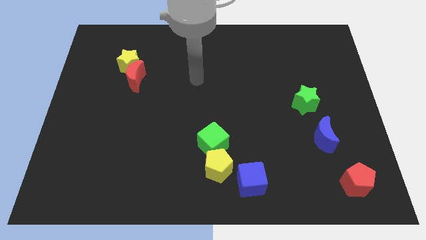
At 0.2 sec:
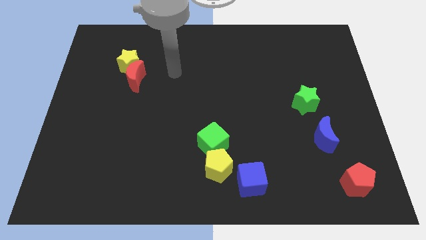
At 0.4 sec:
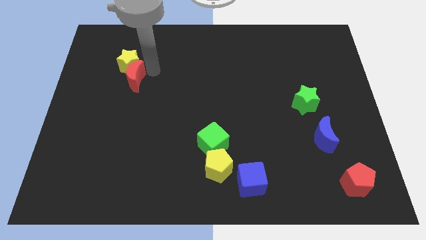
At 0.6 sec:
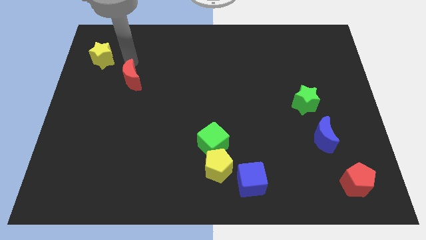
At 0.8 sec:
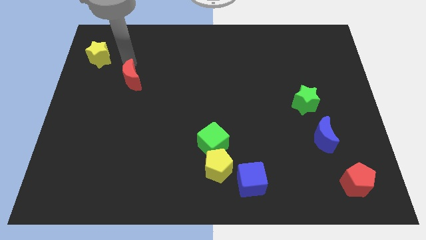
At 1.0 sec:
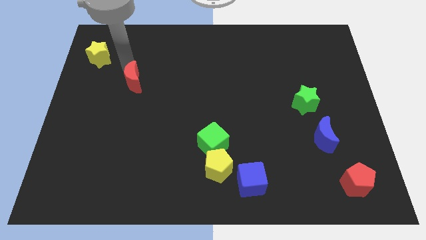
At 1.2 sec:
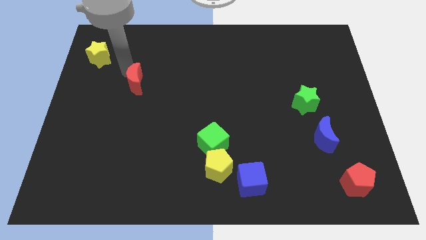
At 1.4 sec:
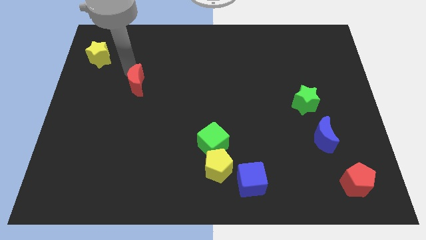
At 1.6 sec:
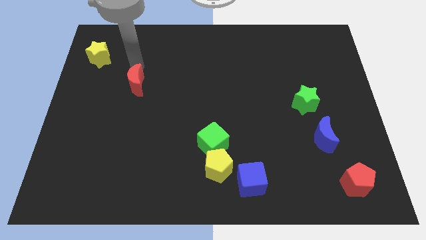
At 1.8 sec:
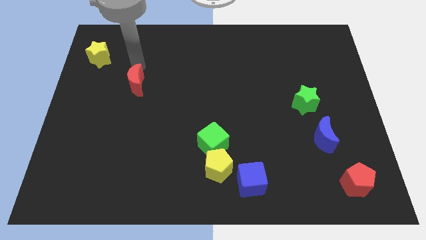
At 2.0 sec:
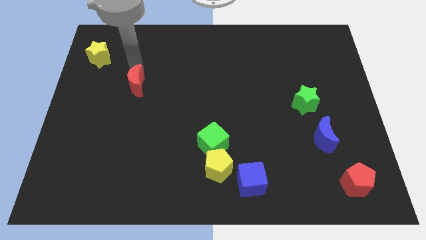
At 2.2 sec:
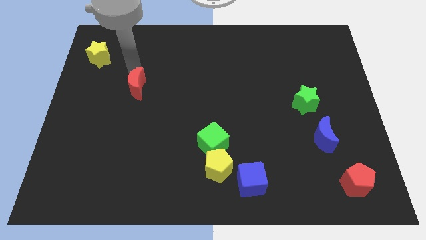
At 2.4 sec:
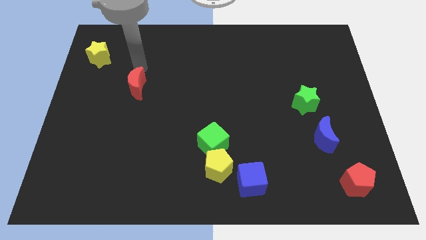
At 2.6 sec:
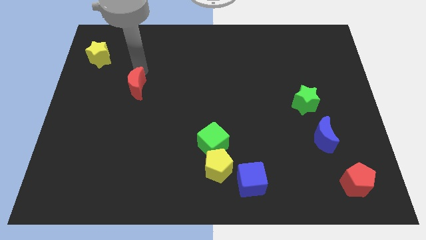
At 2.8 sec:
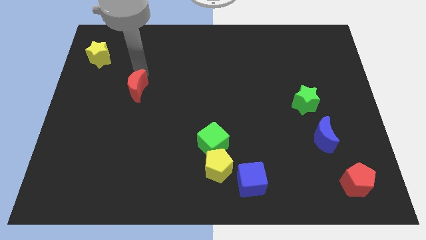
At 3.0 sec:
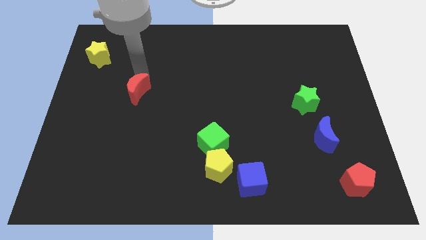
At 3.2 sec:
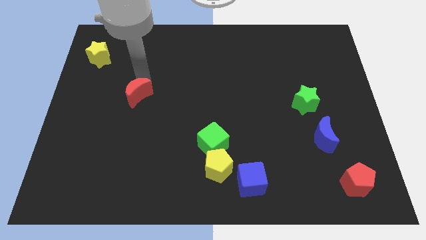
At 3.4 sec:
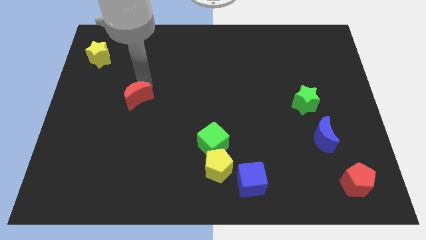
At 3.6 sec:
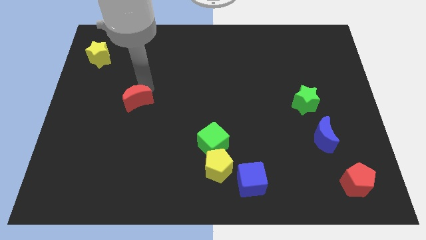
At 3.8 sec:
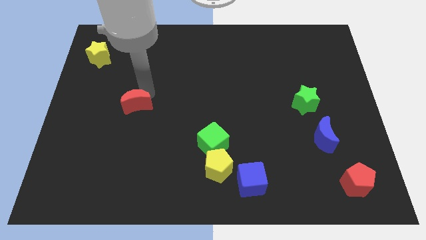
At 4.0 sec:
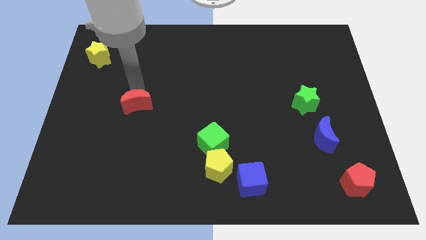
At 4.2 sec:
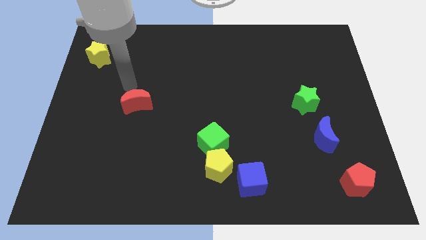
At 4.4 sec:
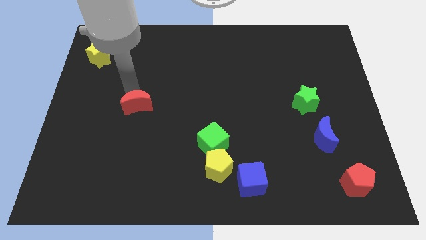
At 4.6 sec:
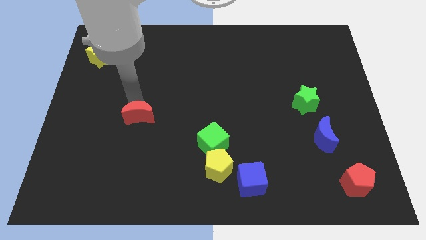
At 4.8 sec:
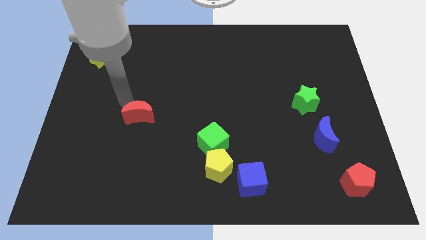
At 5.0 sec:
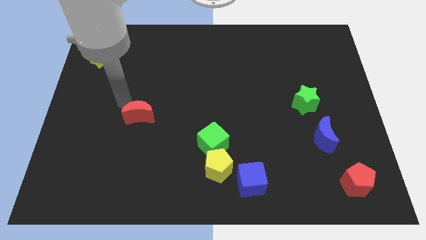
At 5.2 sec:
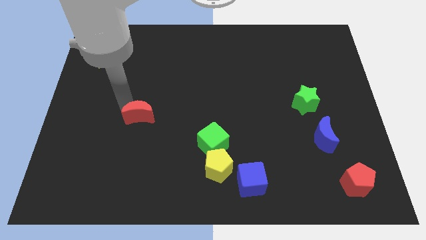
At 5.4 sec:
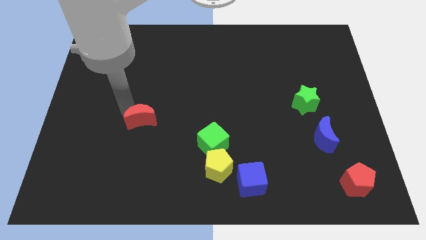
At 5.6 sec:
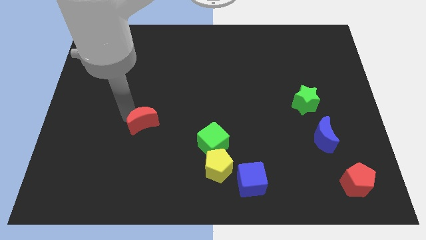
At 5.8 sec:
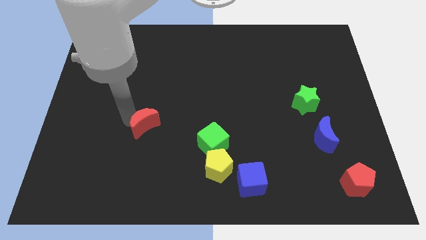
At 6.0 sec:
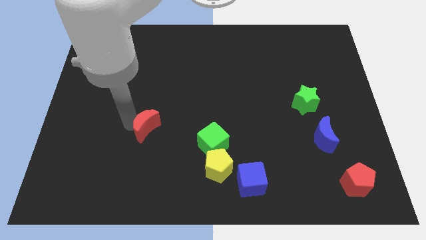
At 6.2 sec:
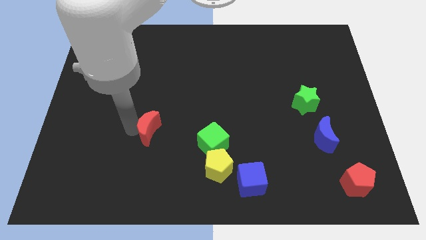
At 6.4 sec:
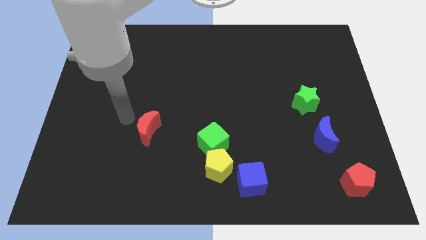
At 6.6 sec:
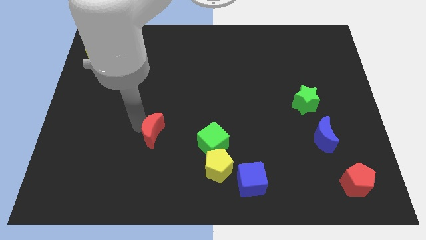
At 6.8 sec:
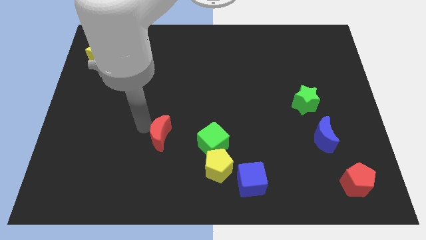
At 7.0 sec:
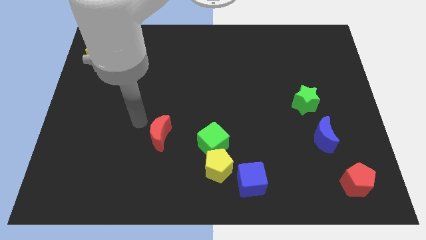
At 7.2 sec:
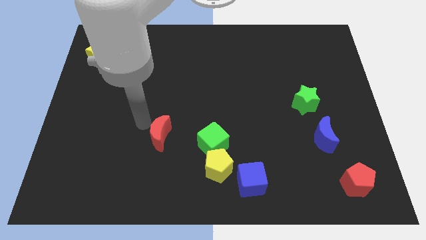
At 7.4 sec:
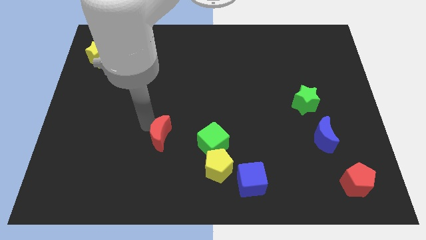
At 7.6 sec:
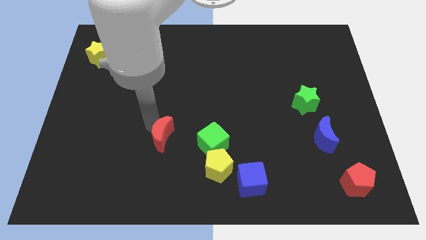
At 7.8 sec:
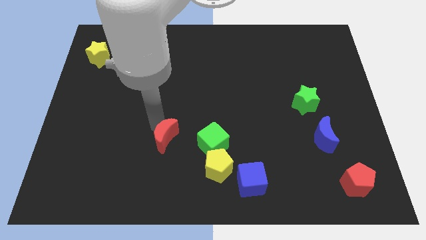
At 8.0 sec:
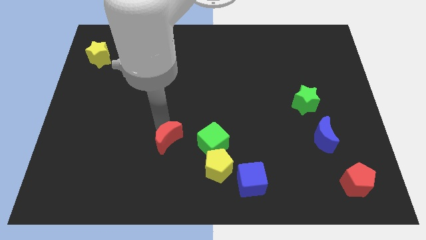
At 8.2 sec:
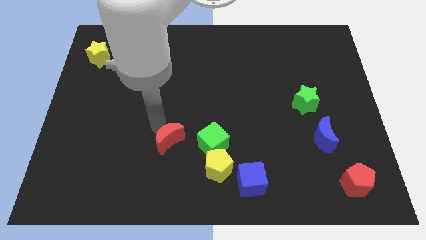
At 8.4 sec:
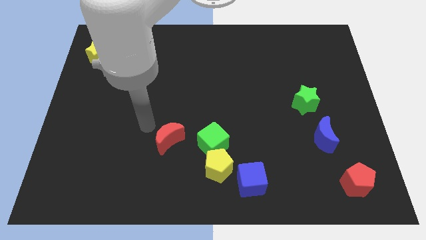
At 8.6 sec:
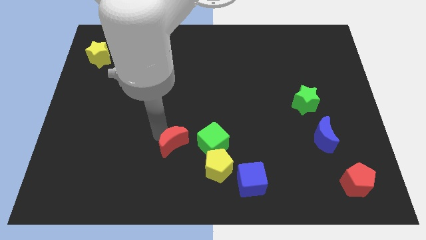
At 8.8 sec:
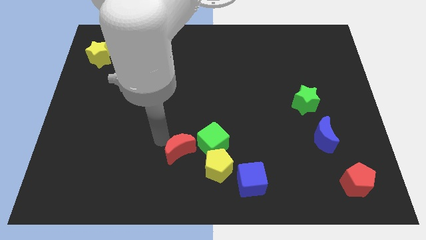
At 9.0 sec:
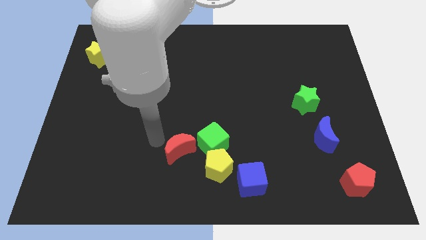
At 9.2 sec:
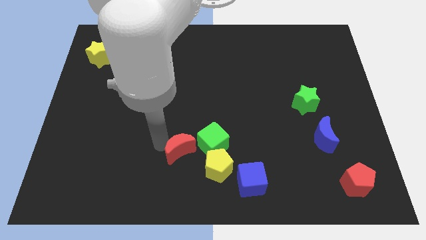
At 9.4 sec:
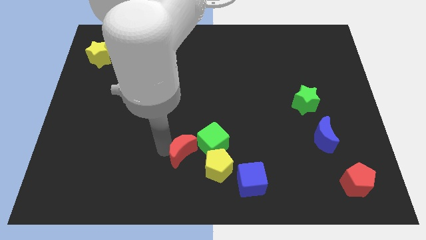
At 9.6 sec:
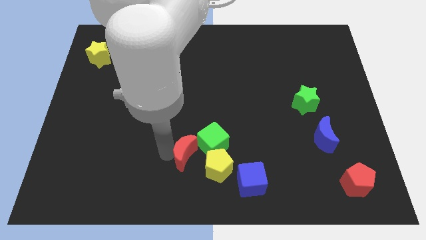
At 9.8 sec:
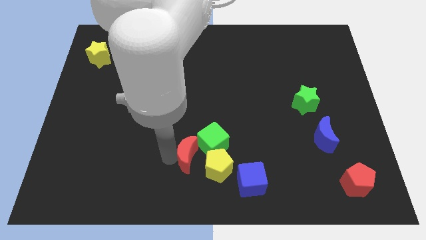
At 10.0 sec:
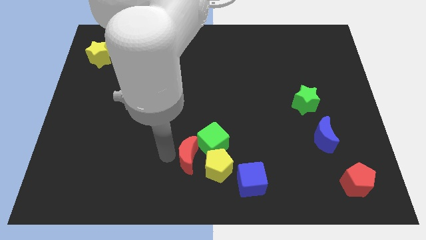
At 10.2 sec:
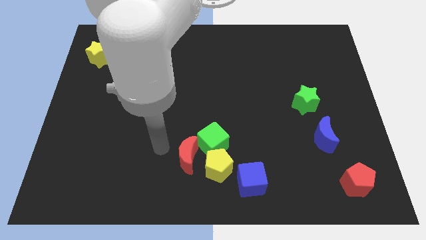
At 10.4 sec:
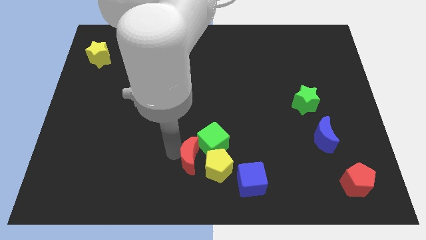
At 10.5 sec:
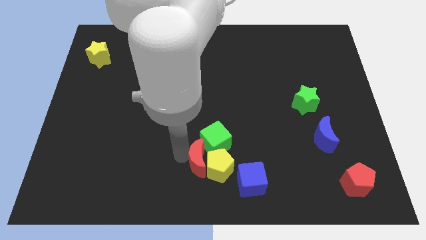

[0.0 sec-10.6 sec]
move the red moon close to the yellow pentagon

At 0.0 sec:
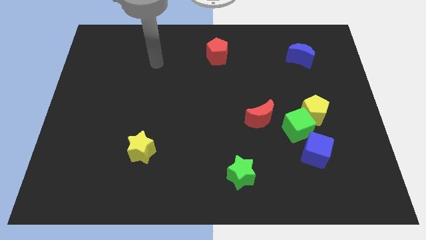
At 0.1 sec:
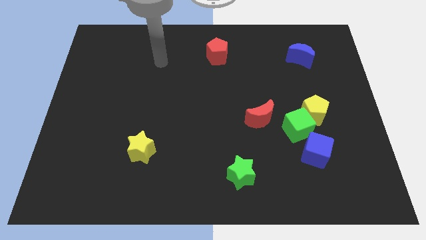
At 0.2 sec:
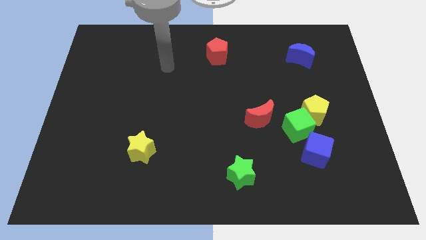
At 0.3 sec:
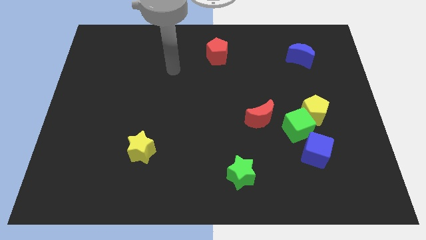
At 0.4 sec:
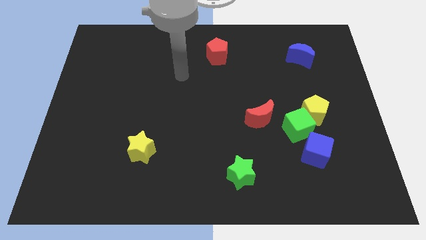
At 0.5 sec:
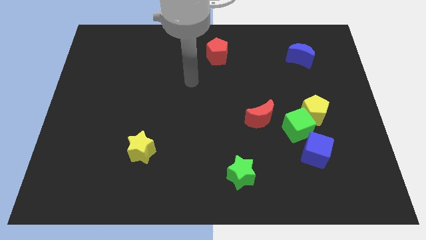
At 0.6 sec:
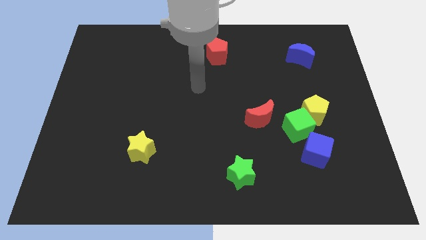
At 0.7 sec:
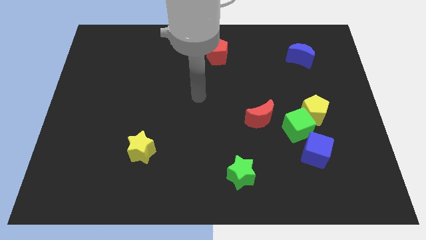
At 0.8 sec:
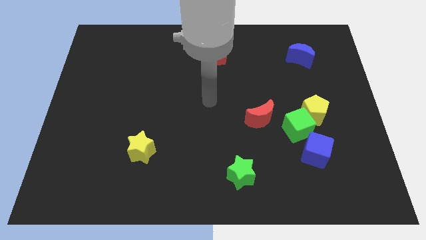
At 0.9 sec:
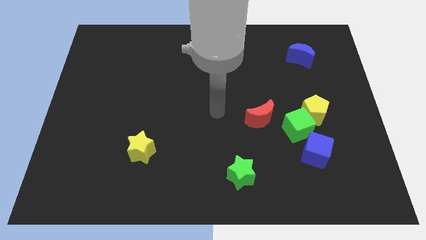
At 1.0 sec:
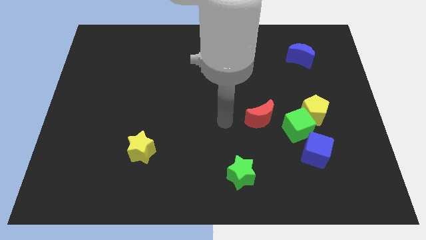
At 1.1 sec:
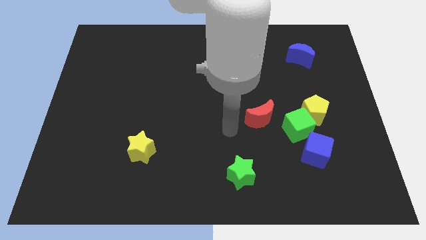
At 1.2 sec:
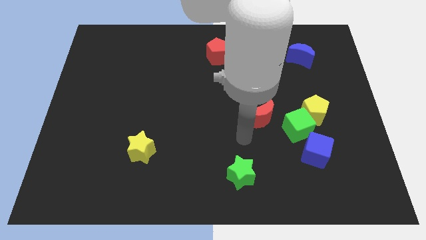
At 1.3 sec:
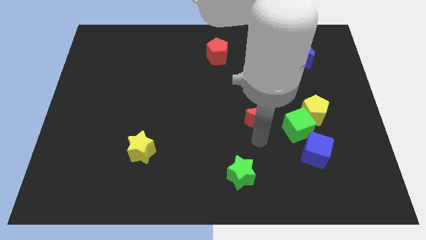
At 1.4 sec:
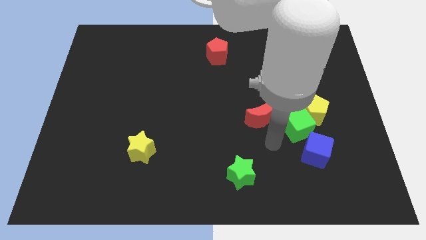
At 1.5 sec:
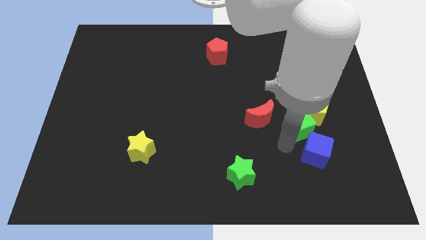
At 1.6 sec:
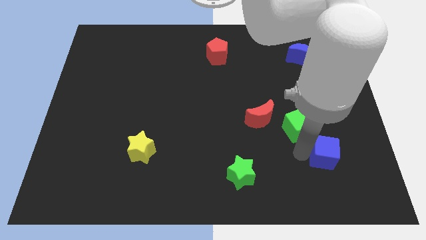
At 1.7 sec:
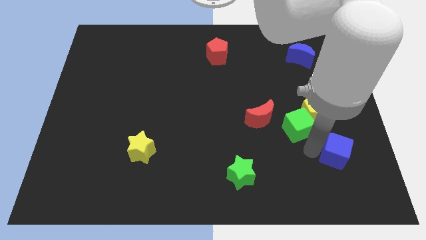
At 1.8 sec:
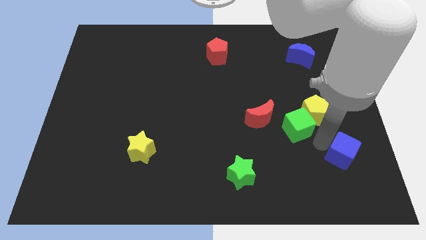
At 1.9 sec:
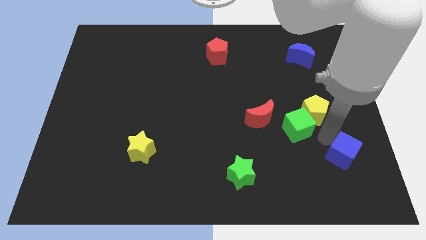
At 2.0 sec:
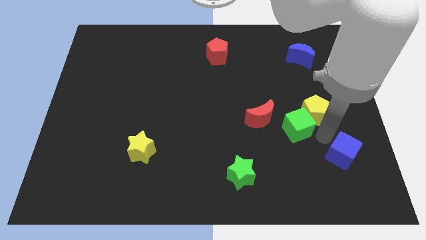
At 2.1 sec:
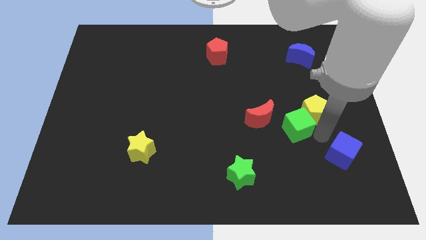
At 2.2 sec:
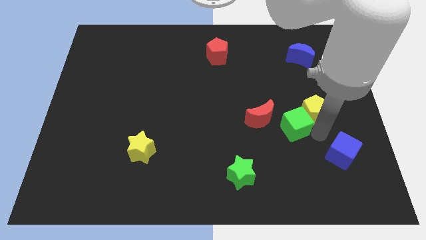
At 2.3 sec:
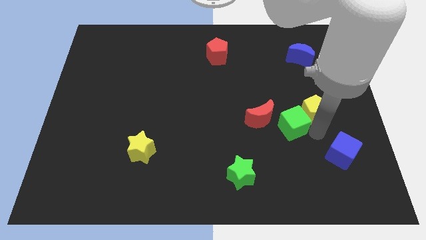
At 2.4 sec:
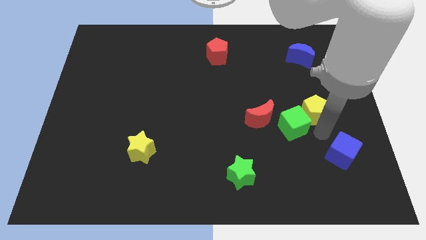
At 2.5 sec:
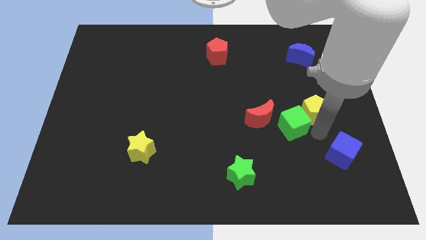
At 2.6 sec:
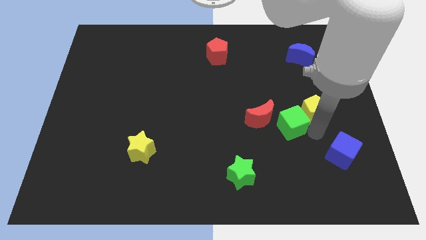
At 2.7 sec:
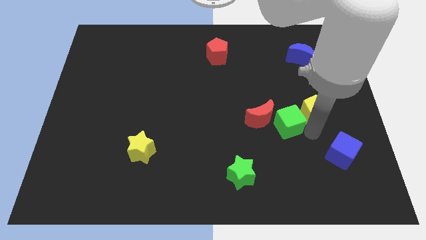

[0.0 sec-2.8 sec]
put the green cube towards the red moon
